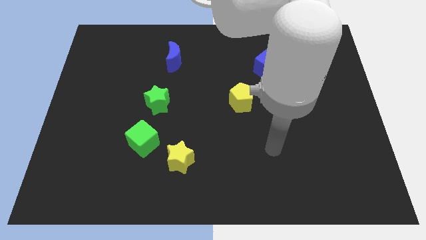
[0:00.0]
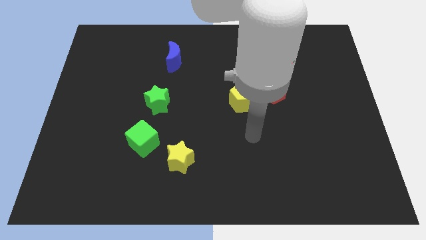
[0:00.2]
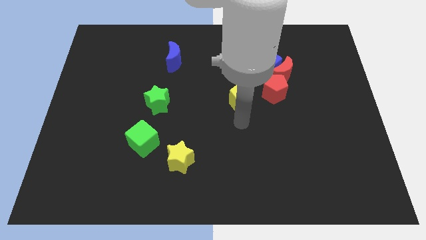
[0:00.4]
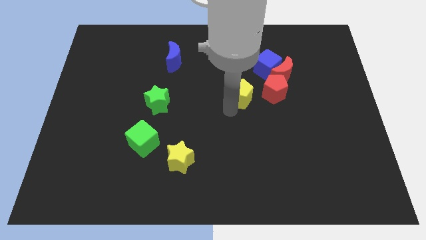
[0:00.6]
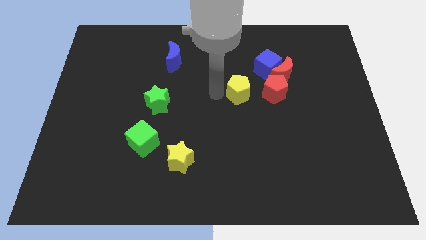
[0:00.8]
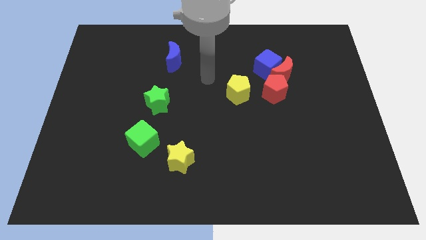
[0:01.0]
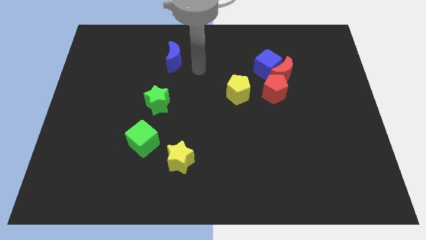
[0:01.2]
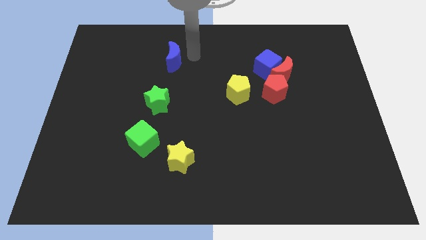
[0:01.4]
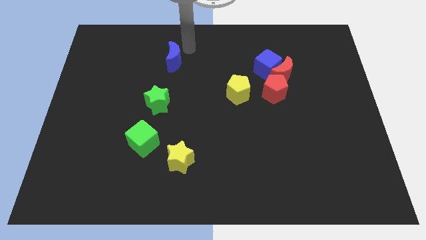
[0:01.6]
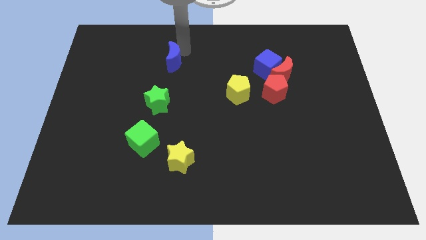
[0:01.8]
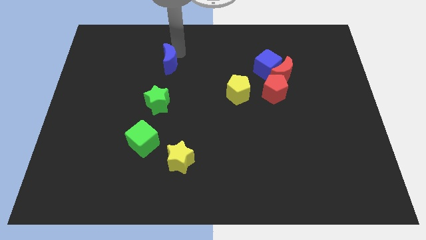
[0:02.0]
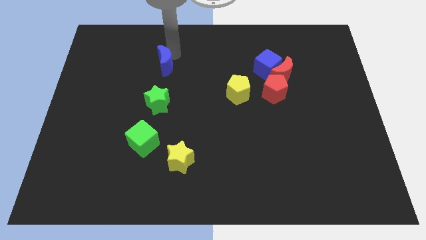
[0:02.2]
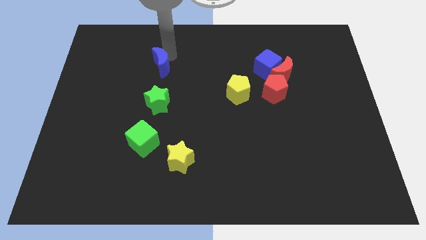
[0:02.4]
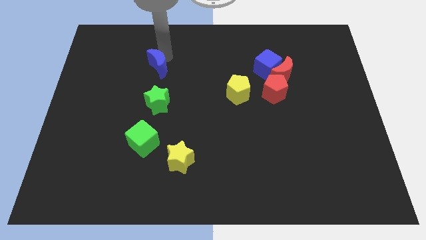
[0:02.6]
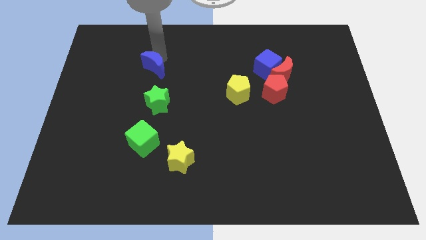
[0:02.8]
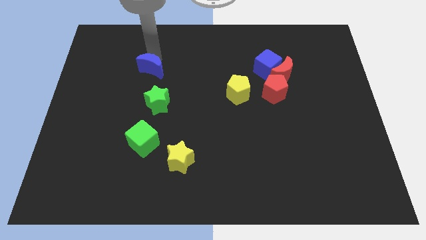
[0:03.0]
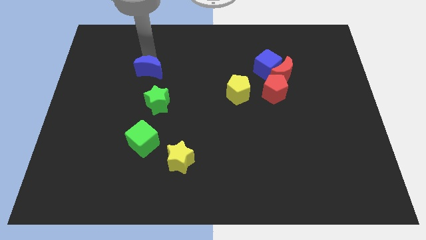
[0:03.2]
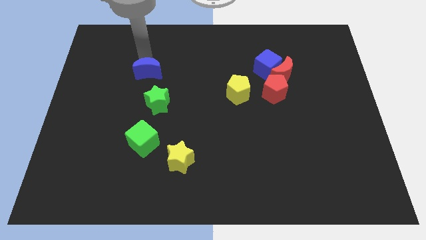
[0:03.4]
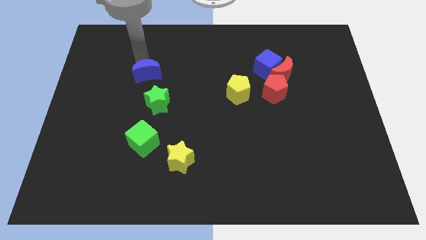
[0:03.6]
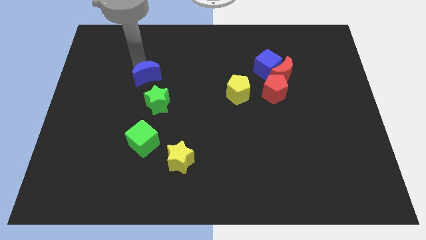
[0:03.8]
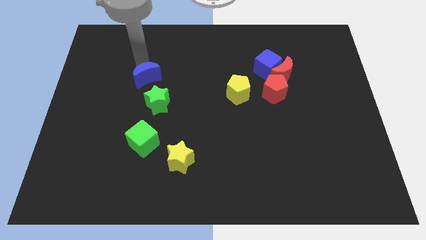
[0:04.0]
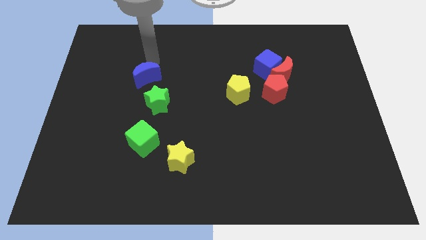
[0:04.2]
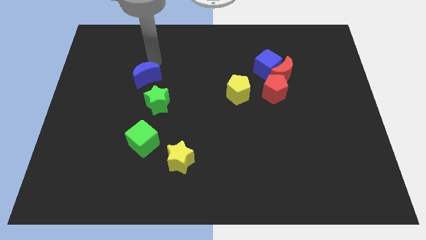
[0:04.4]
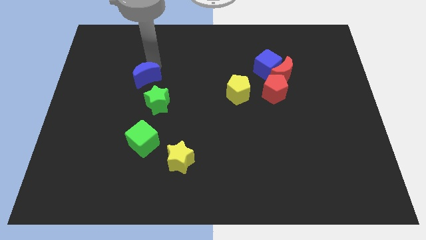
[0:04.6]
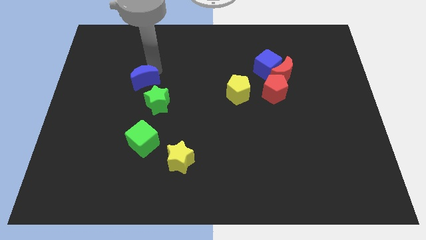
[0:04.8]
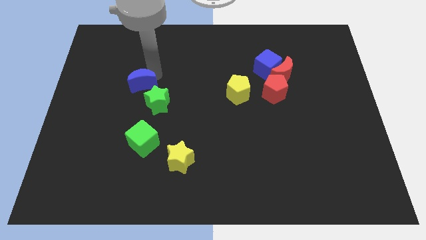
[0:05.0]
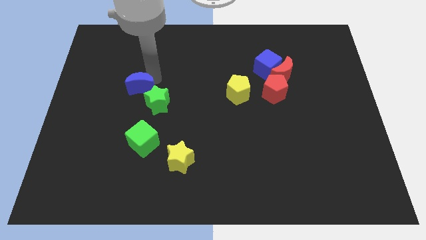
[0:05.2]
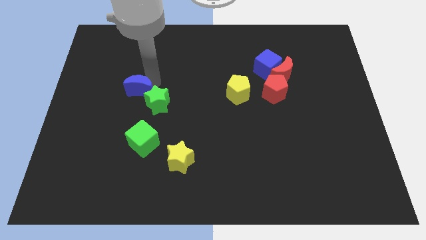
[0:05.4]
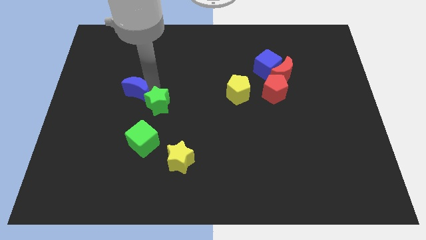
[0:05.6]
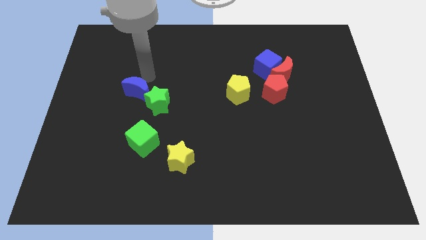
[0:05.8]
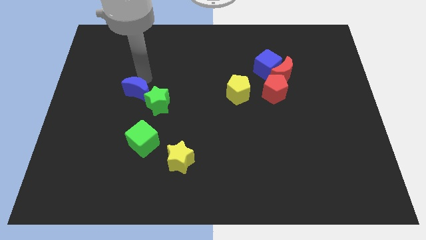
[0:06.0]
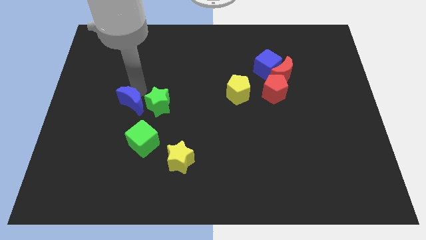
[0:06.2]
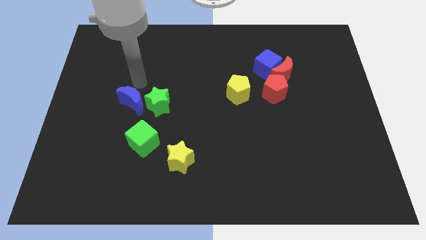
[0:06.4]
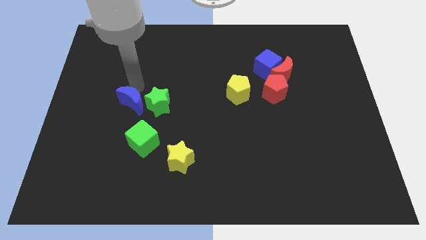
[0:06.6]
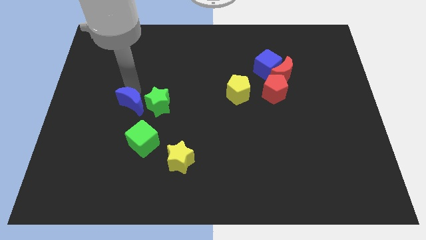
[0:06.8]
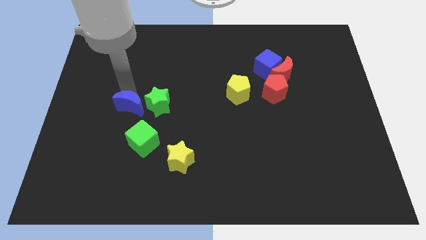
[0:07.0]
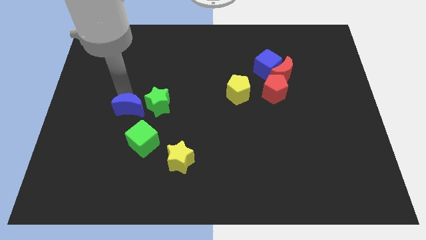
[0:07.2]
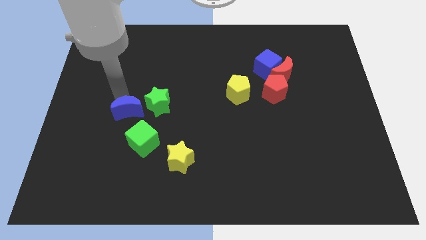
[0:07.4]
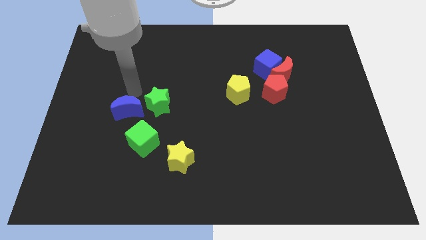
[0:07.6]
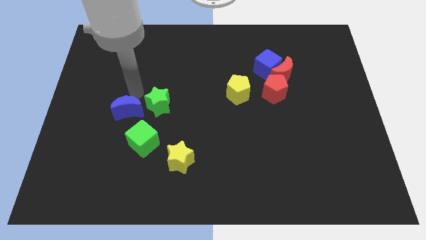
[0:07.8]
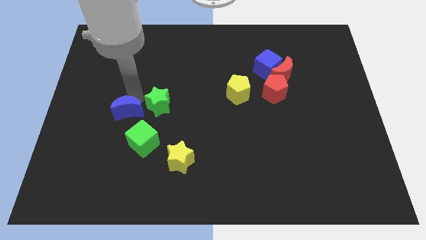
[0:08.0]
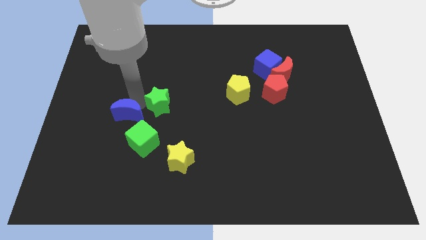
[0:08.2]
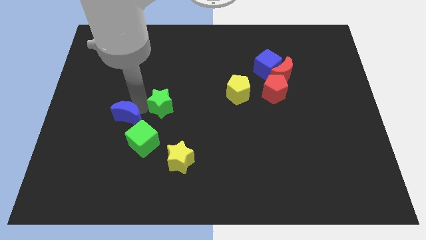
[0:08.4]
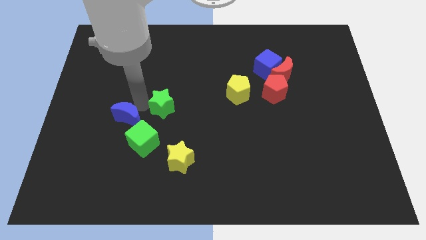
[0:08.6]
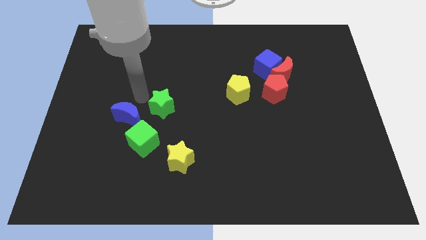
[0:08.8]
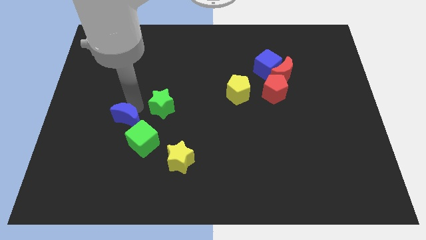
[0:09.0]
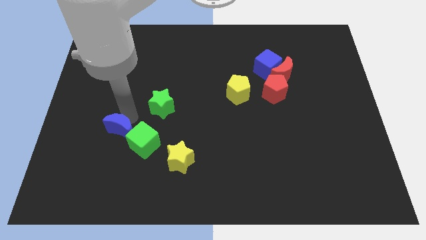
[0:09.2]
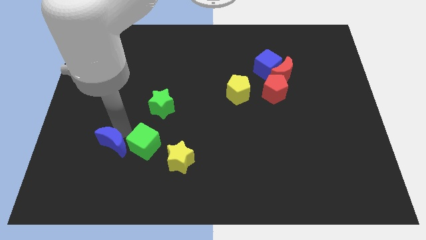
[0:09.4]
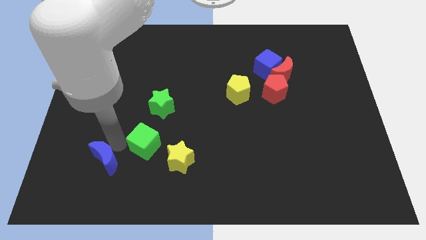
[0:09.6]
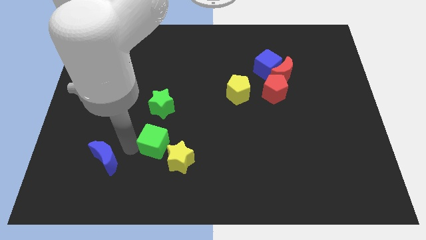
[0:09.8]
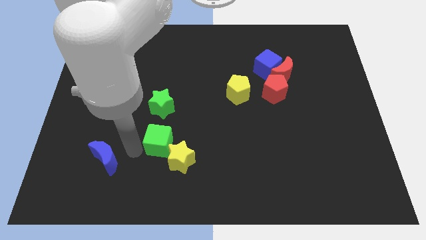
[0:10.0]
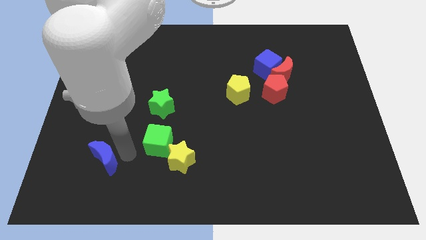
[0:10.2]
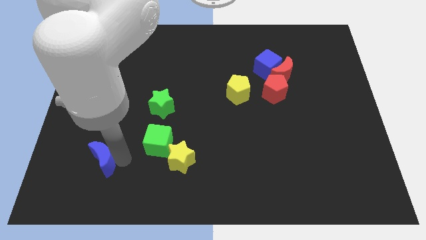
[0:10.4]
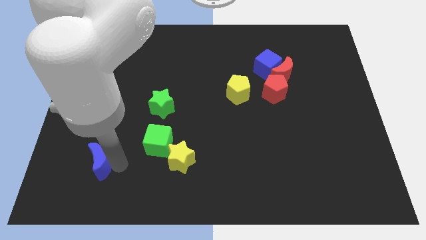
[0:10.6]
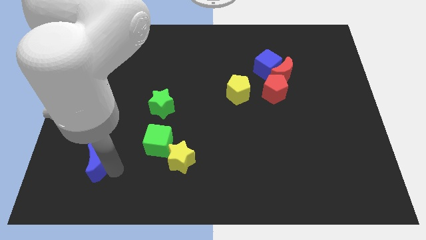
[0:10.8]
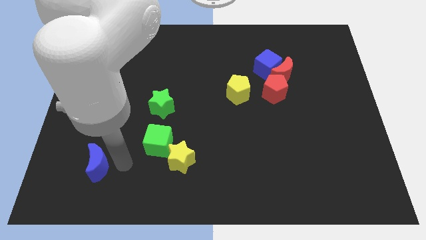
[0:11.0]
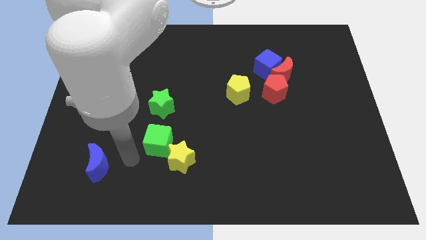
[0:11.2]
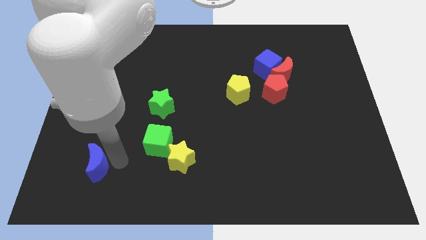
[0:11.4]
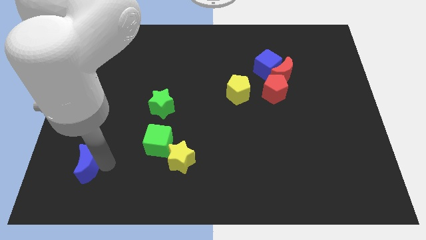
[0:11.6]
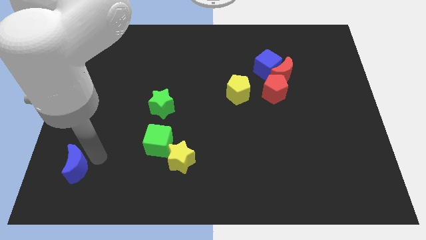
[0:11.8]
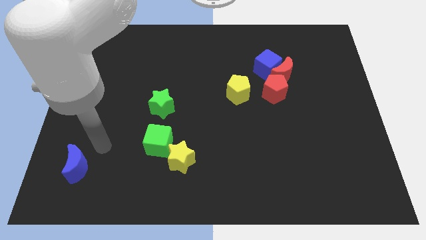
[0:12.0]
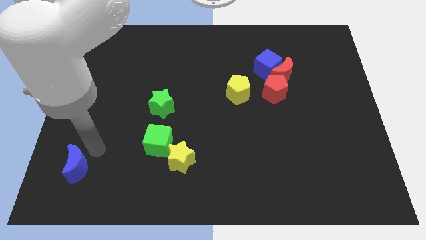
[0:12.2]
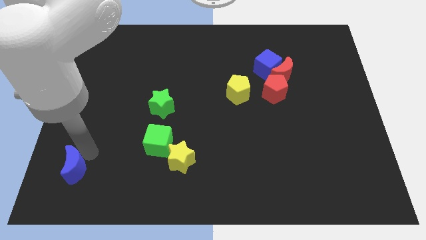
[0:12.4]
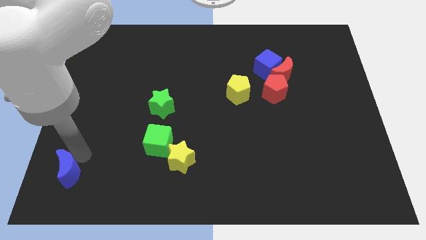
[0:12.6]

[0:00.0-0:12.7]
put the blue moon to the bottom left of the board
